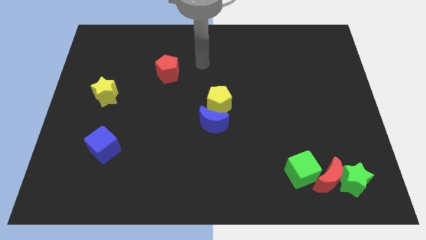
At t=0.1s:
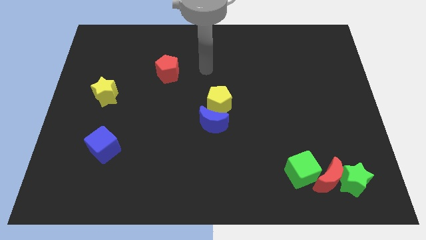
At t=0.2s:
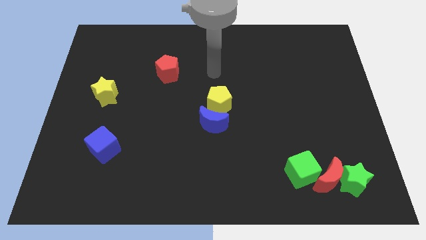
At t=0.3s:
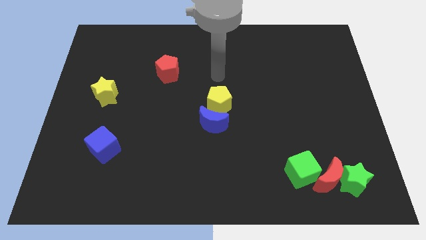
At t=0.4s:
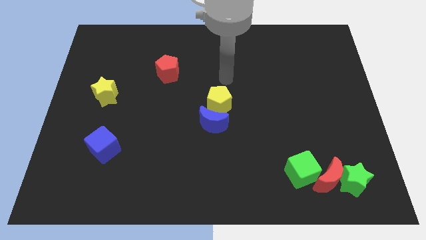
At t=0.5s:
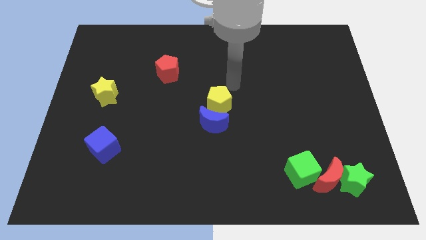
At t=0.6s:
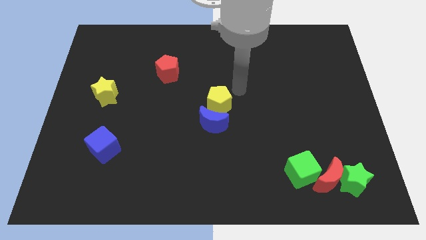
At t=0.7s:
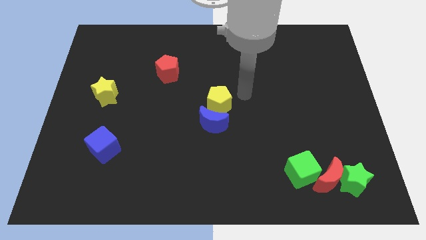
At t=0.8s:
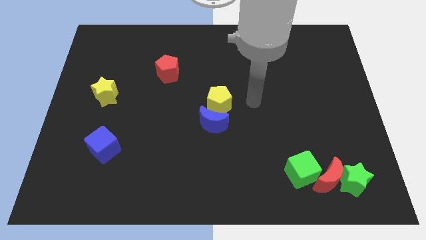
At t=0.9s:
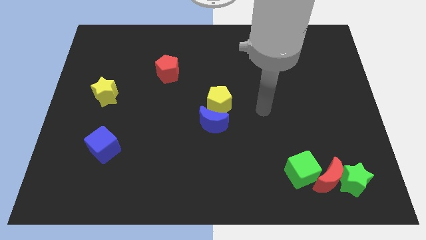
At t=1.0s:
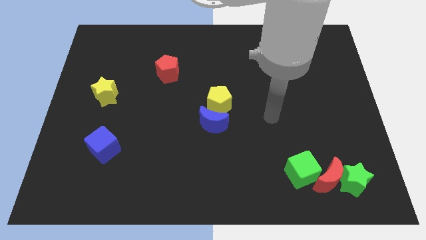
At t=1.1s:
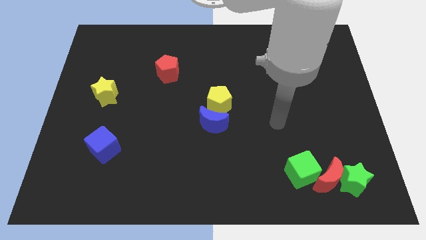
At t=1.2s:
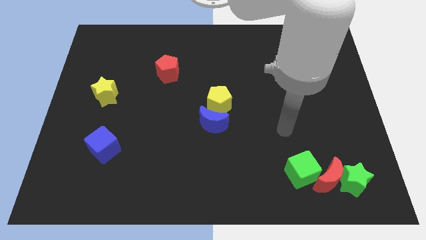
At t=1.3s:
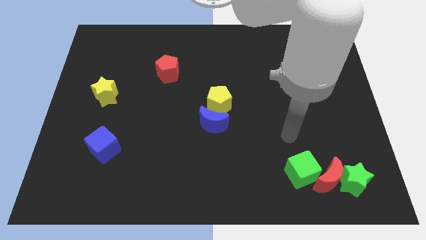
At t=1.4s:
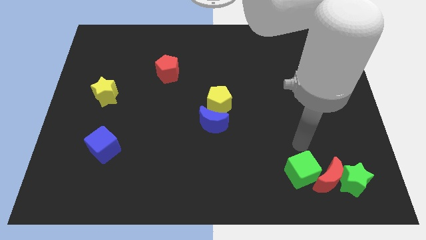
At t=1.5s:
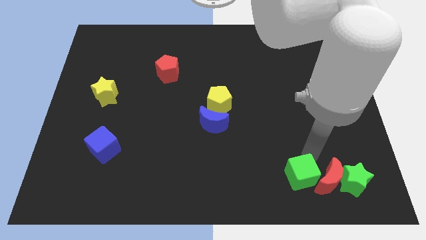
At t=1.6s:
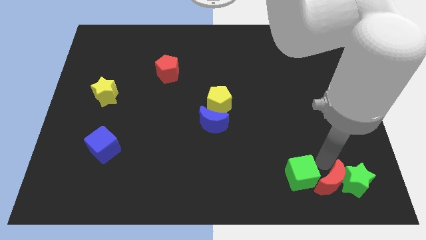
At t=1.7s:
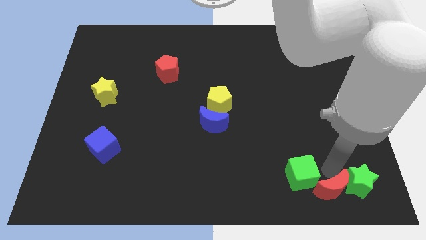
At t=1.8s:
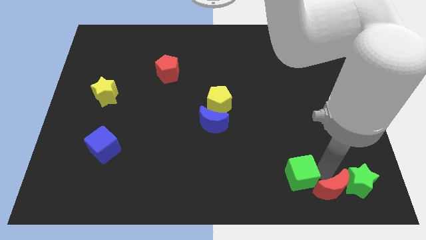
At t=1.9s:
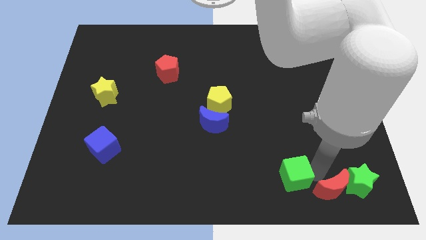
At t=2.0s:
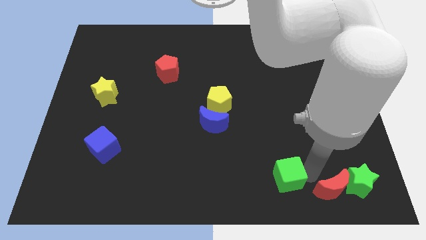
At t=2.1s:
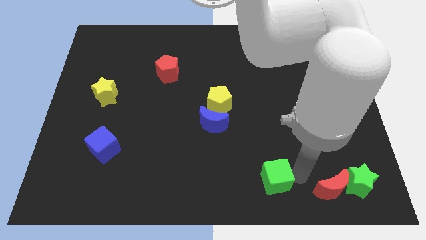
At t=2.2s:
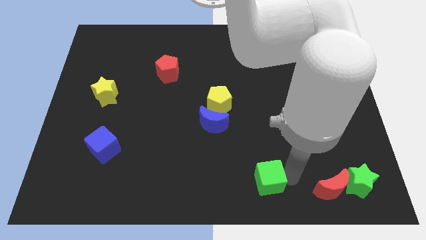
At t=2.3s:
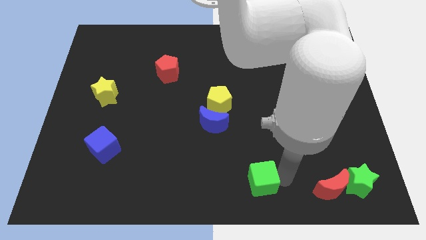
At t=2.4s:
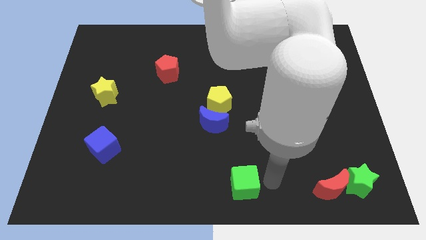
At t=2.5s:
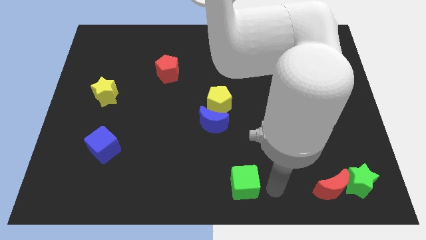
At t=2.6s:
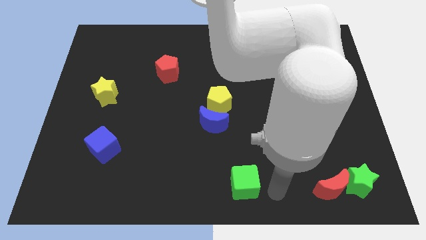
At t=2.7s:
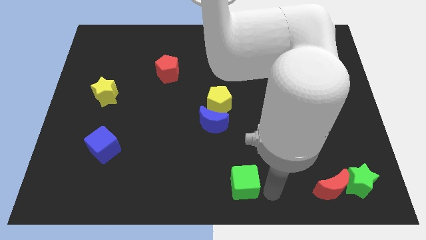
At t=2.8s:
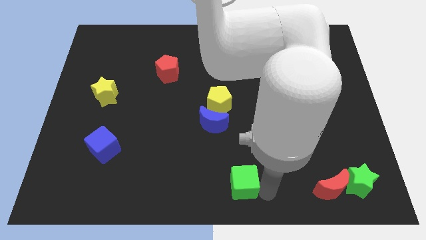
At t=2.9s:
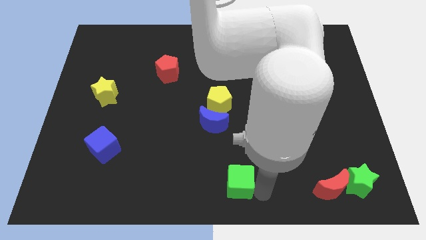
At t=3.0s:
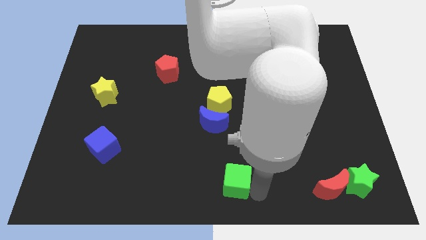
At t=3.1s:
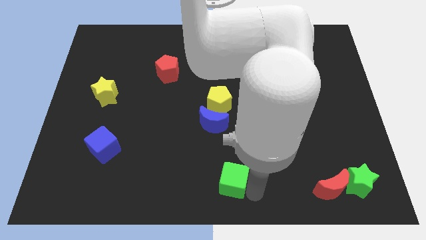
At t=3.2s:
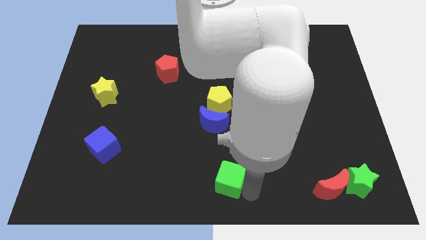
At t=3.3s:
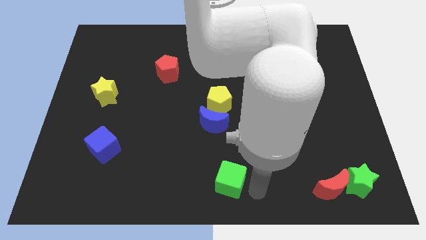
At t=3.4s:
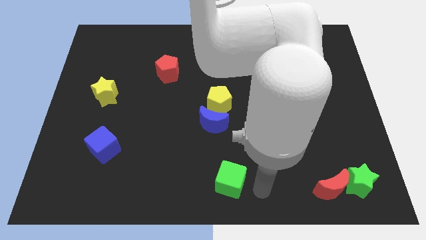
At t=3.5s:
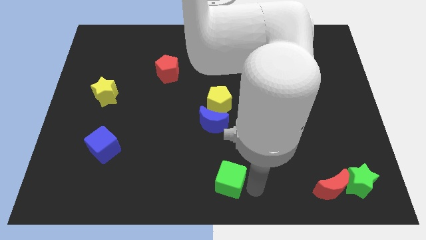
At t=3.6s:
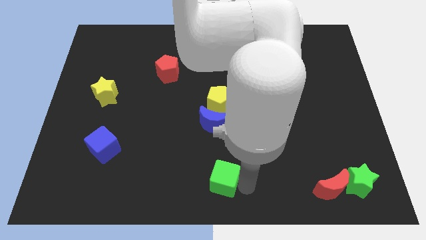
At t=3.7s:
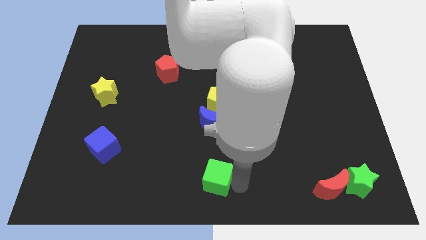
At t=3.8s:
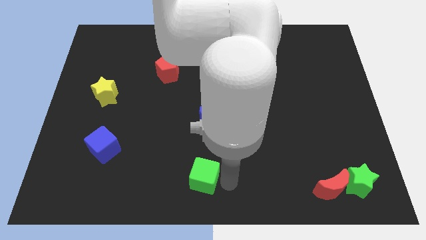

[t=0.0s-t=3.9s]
push the green cube to the left

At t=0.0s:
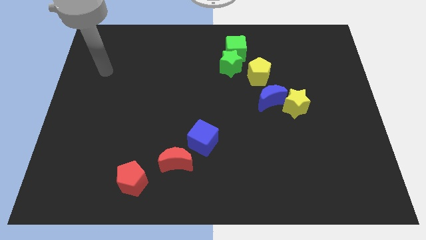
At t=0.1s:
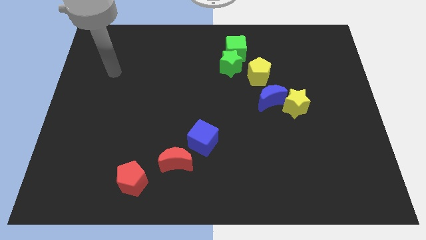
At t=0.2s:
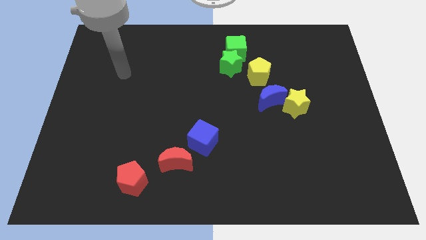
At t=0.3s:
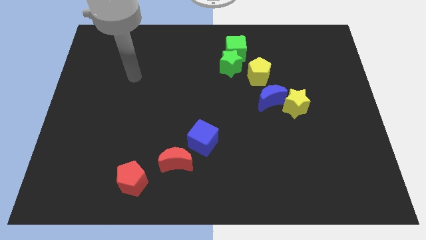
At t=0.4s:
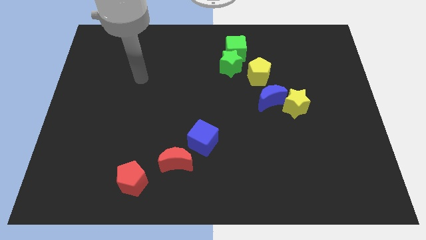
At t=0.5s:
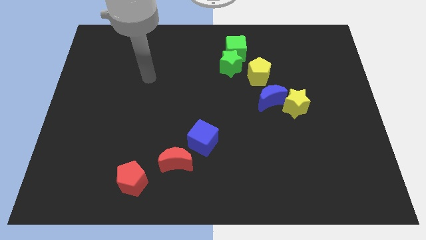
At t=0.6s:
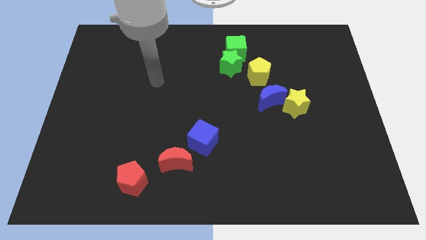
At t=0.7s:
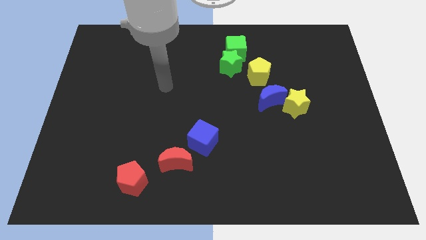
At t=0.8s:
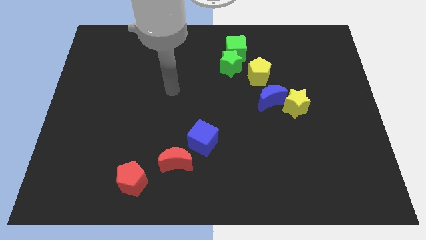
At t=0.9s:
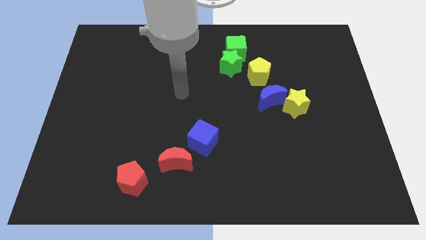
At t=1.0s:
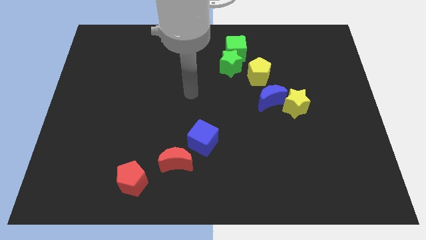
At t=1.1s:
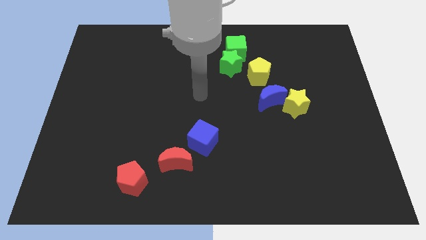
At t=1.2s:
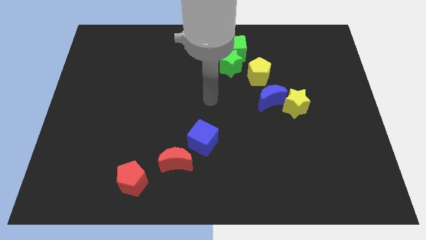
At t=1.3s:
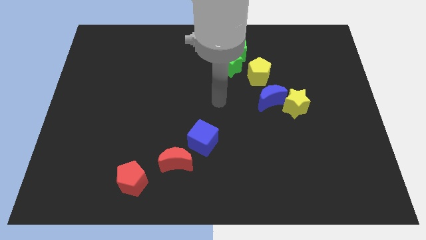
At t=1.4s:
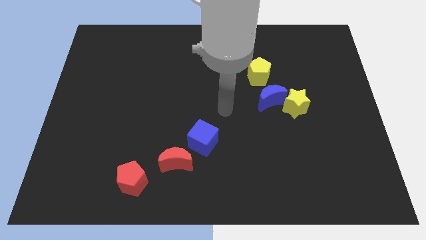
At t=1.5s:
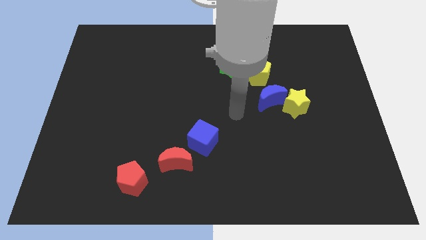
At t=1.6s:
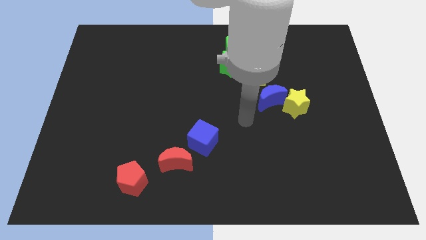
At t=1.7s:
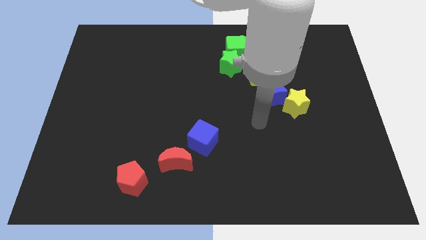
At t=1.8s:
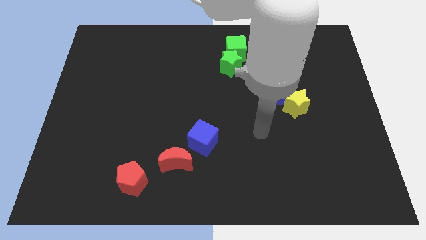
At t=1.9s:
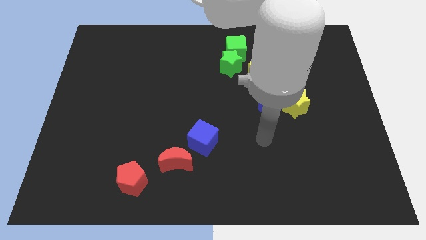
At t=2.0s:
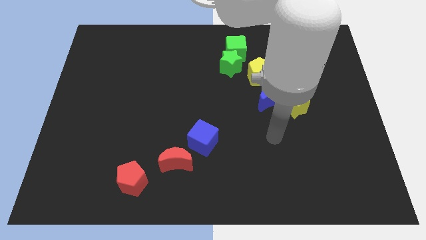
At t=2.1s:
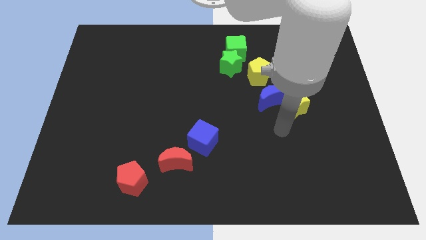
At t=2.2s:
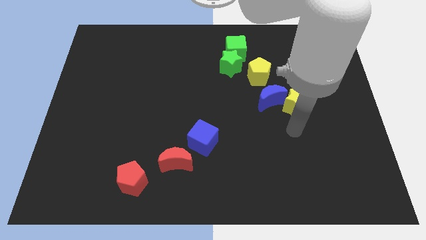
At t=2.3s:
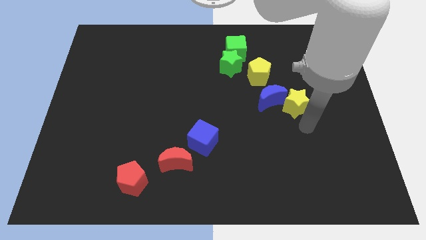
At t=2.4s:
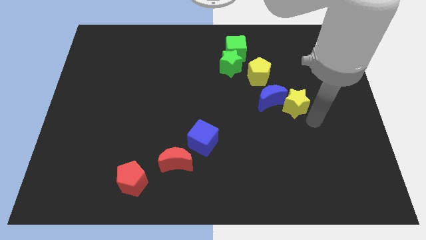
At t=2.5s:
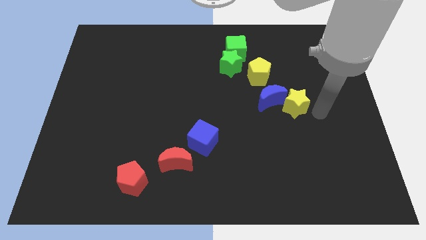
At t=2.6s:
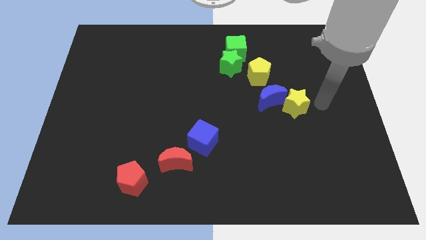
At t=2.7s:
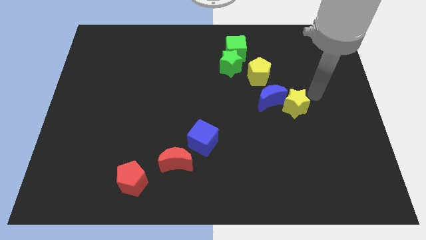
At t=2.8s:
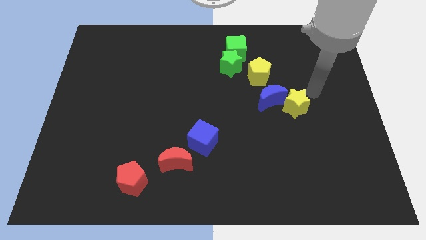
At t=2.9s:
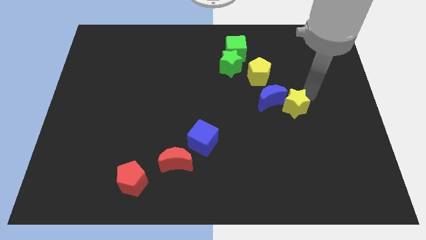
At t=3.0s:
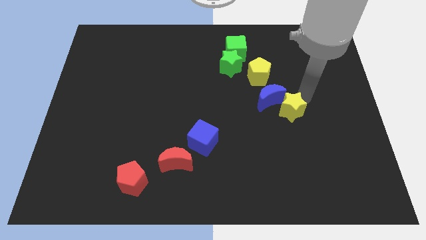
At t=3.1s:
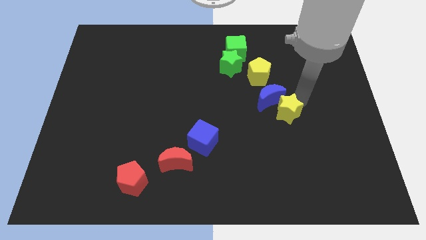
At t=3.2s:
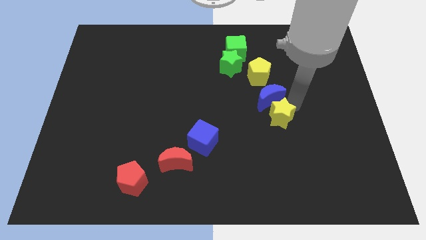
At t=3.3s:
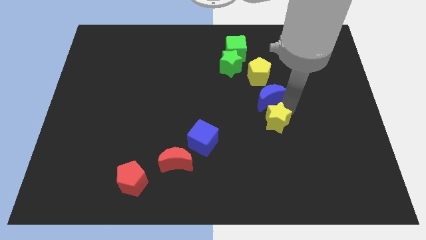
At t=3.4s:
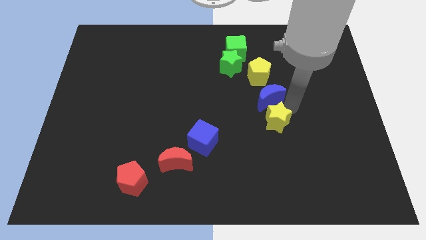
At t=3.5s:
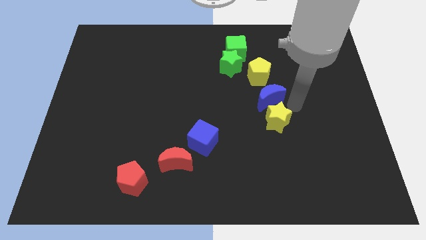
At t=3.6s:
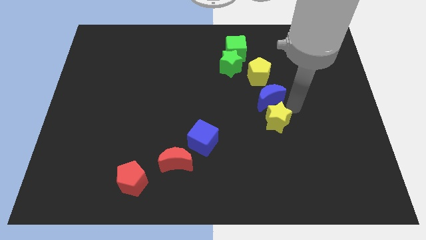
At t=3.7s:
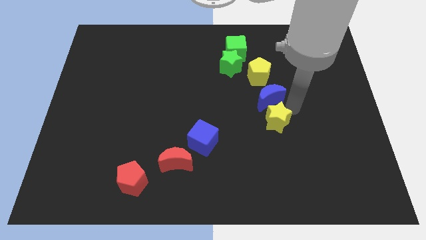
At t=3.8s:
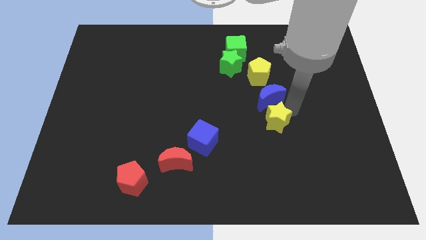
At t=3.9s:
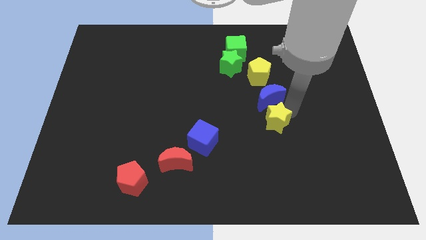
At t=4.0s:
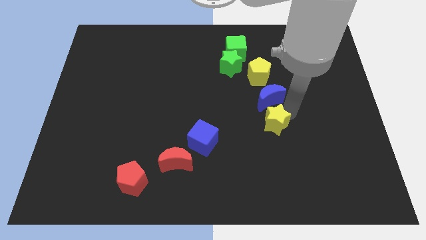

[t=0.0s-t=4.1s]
push the yellow star diagonally downwards and left slightly

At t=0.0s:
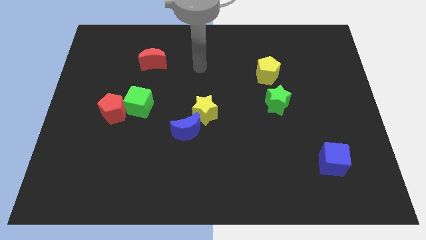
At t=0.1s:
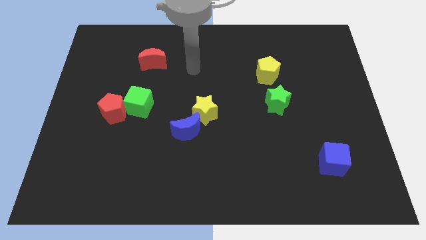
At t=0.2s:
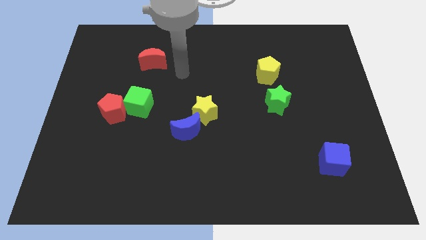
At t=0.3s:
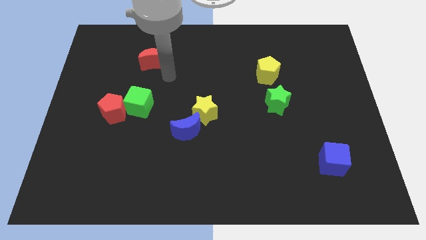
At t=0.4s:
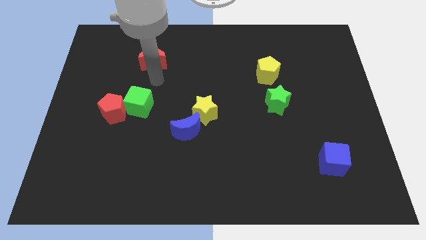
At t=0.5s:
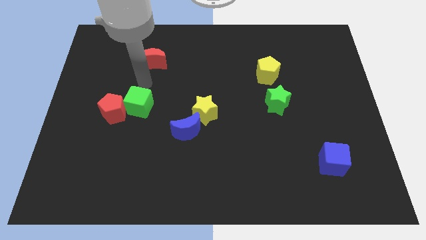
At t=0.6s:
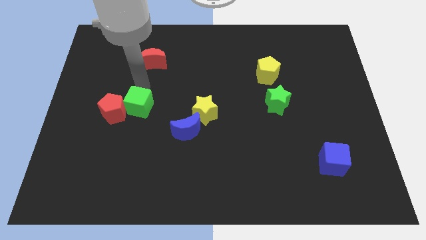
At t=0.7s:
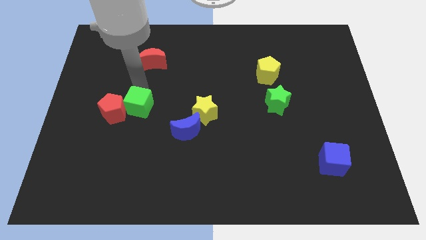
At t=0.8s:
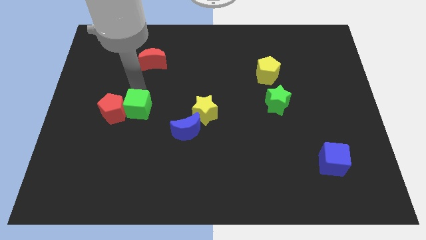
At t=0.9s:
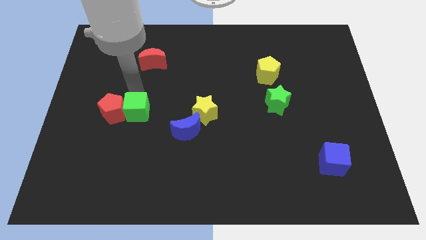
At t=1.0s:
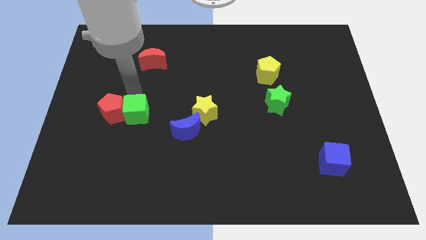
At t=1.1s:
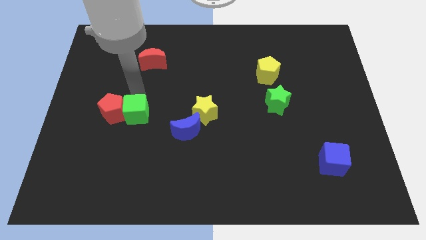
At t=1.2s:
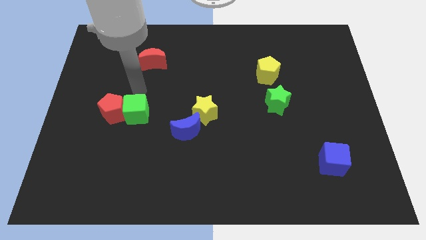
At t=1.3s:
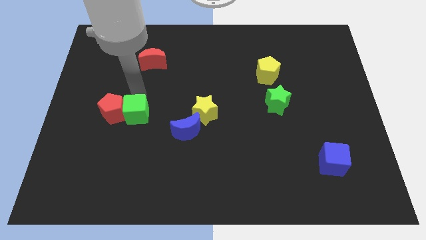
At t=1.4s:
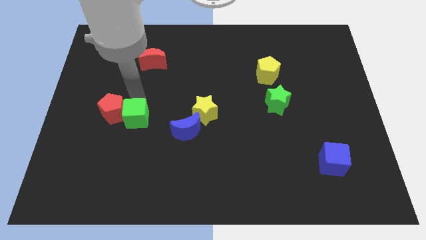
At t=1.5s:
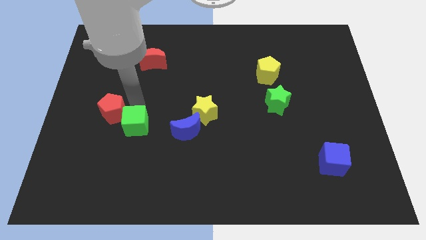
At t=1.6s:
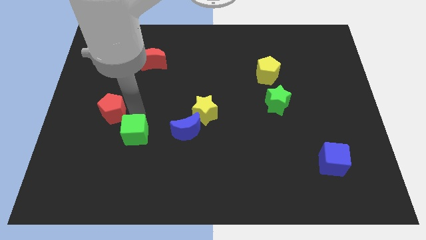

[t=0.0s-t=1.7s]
move the green cube a bit downwards
